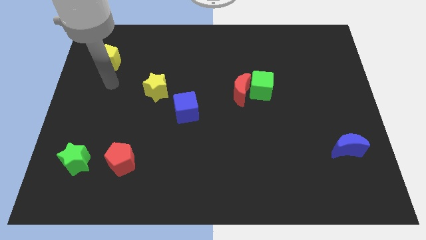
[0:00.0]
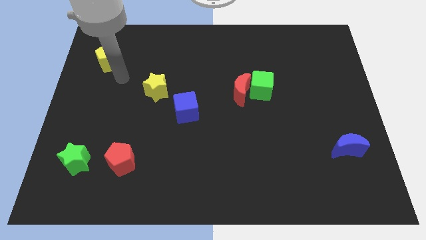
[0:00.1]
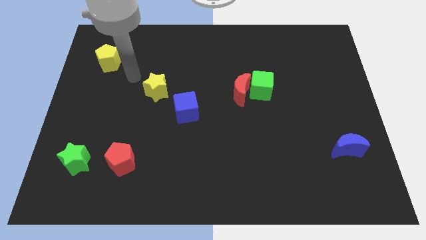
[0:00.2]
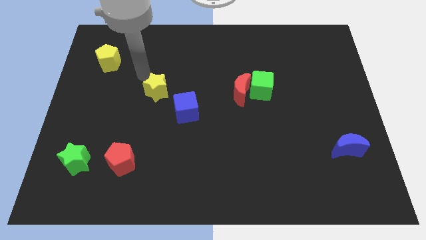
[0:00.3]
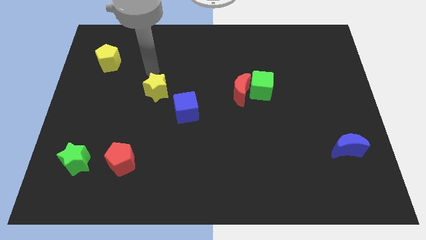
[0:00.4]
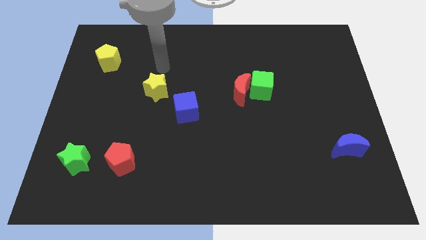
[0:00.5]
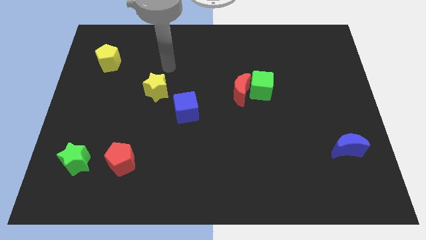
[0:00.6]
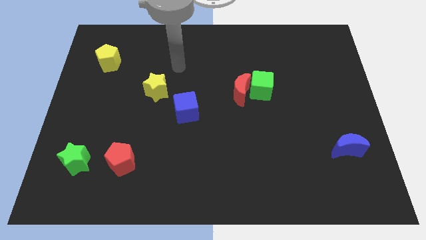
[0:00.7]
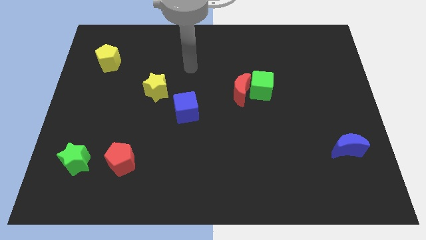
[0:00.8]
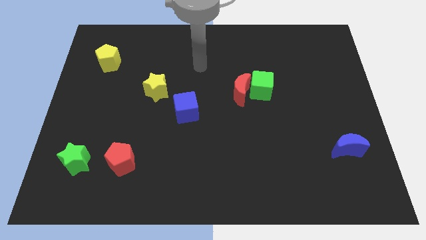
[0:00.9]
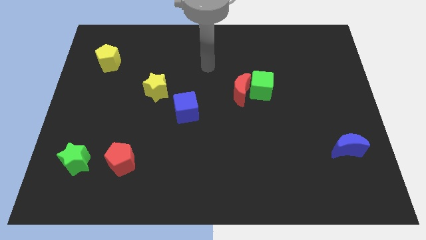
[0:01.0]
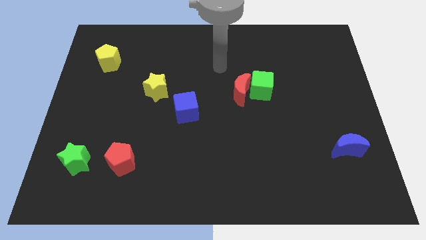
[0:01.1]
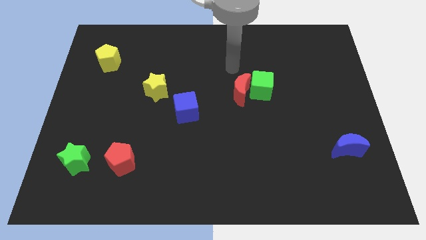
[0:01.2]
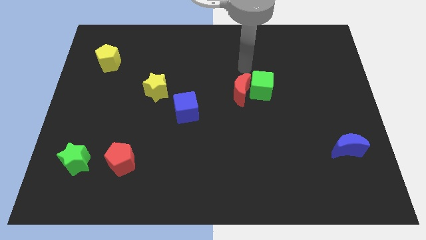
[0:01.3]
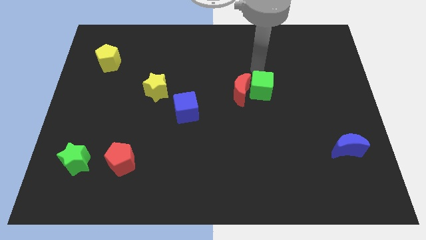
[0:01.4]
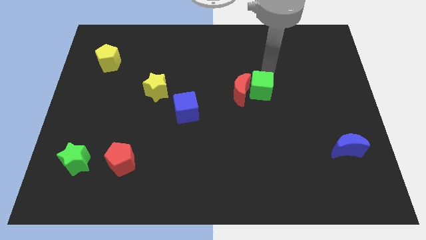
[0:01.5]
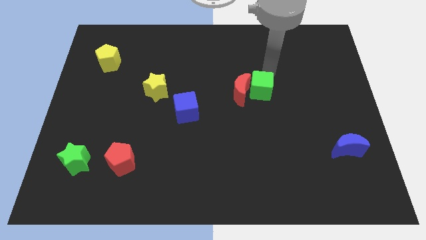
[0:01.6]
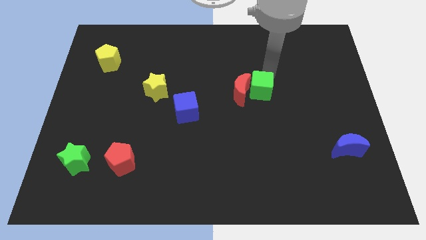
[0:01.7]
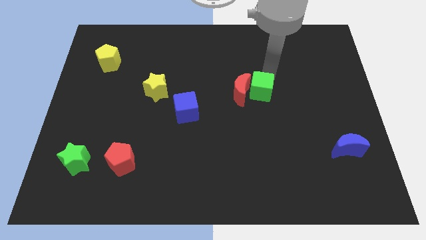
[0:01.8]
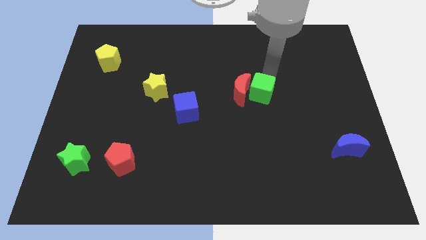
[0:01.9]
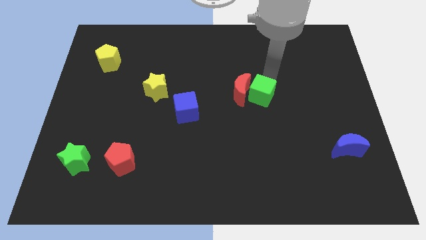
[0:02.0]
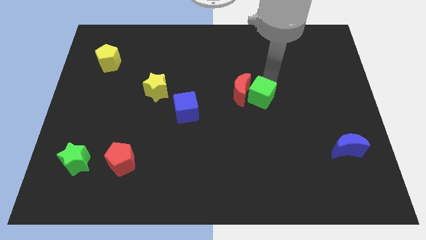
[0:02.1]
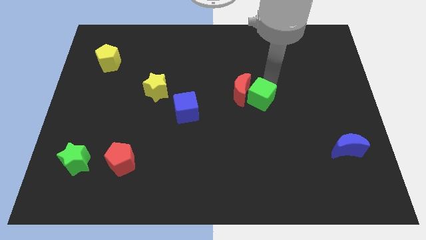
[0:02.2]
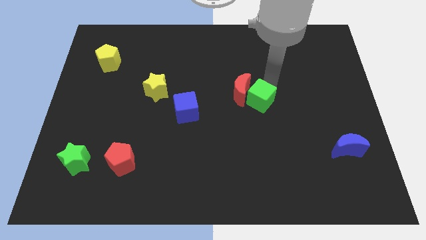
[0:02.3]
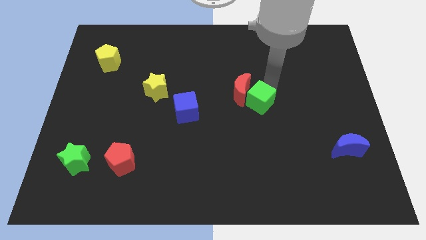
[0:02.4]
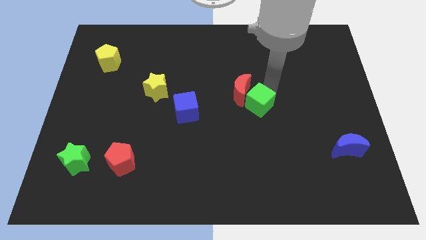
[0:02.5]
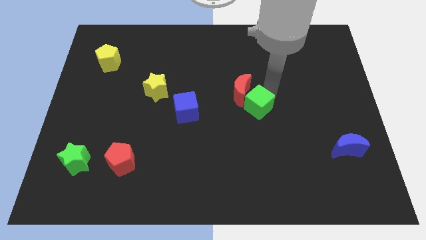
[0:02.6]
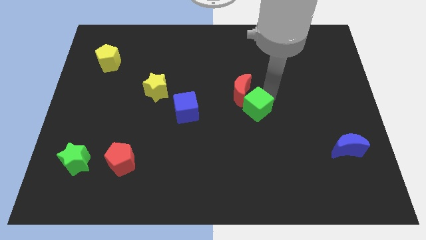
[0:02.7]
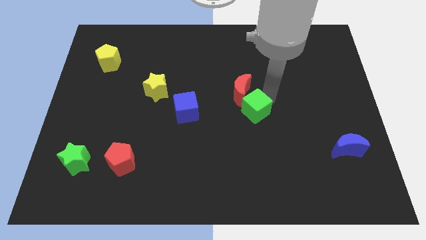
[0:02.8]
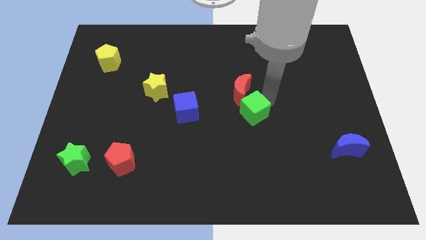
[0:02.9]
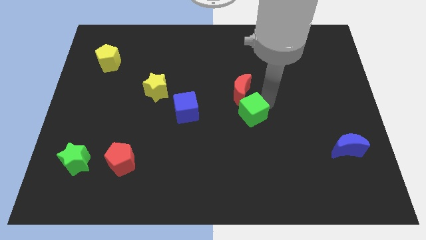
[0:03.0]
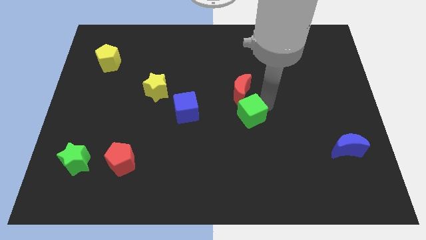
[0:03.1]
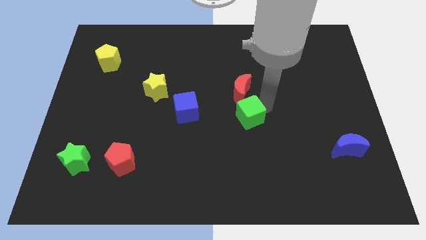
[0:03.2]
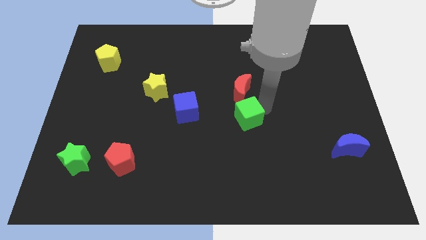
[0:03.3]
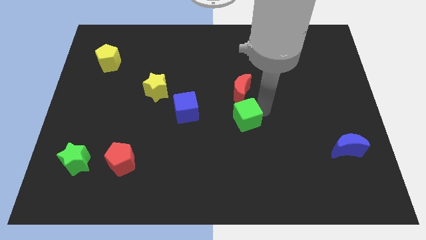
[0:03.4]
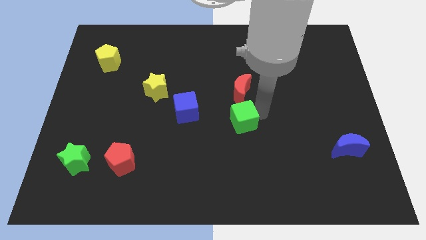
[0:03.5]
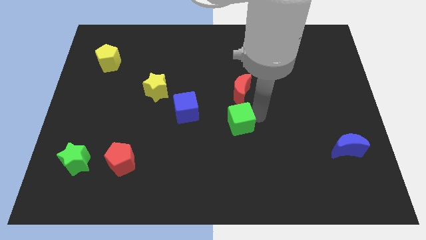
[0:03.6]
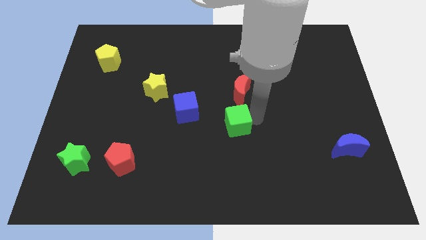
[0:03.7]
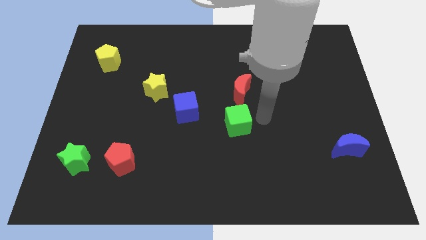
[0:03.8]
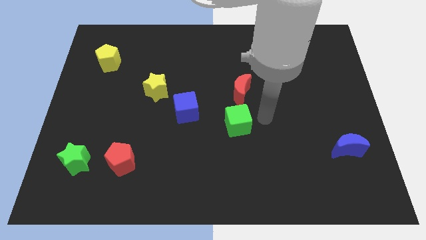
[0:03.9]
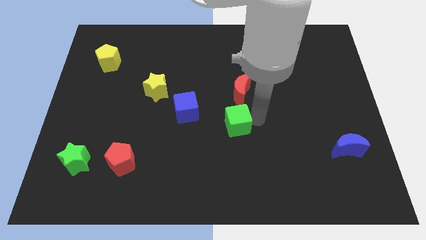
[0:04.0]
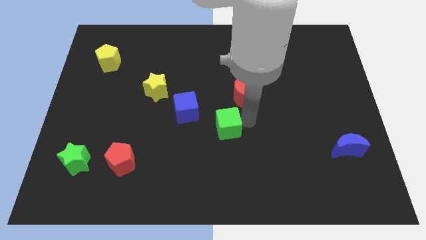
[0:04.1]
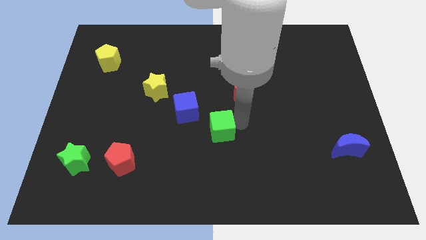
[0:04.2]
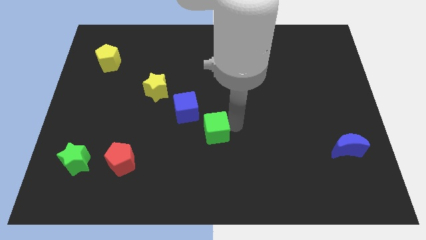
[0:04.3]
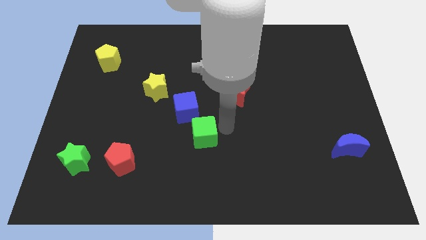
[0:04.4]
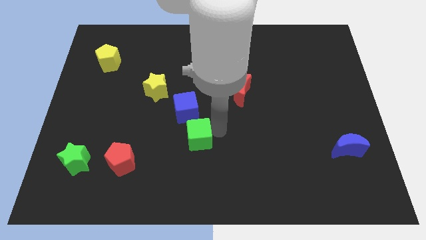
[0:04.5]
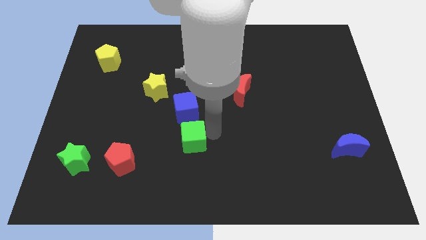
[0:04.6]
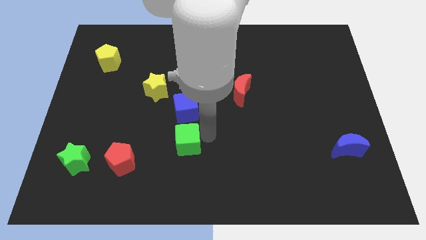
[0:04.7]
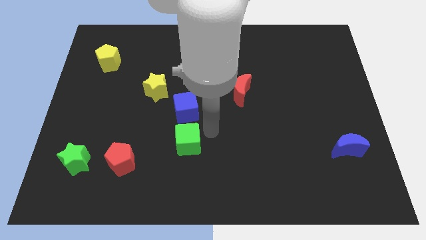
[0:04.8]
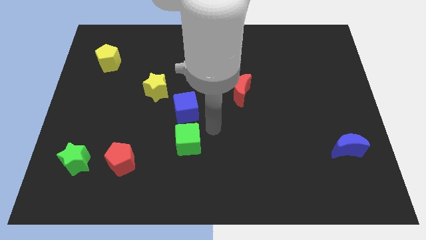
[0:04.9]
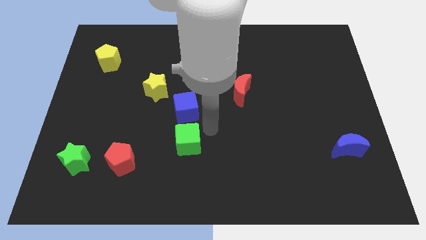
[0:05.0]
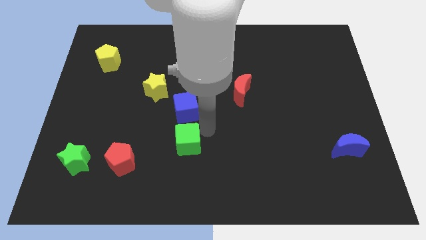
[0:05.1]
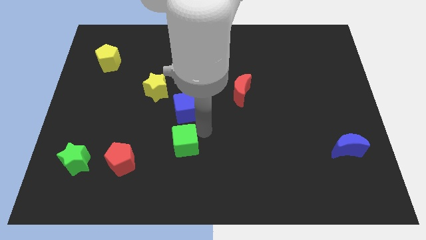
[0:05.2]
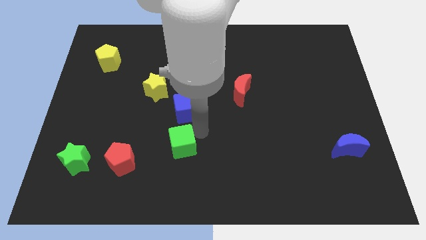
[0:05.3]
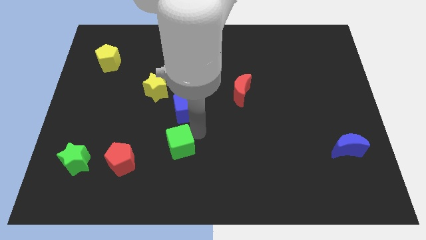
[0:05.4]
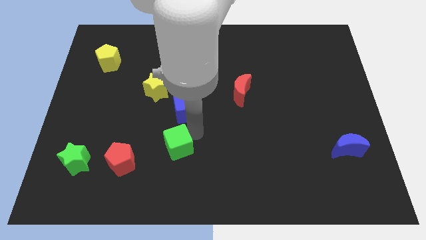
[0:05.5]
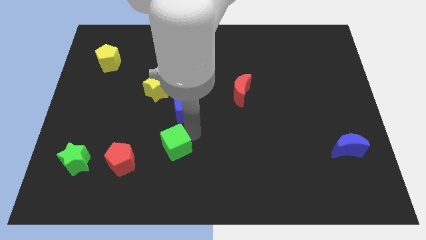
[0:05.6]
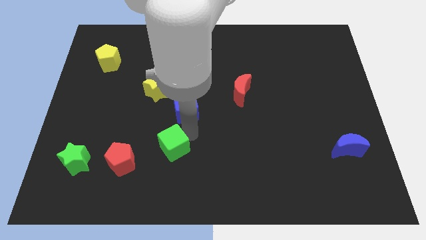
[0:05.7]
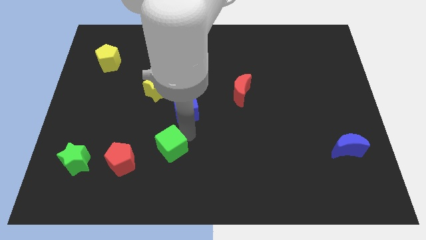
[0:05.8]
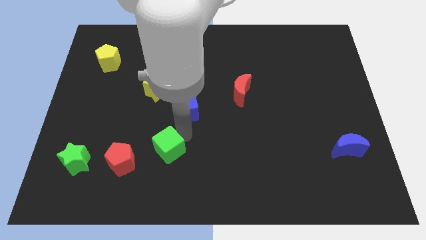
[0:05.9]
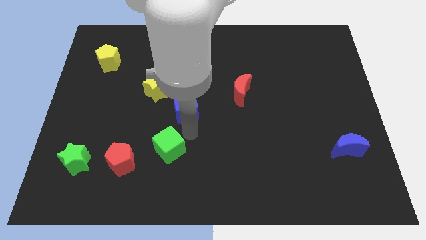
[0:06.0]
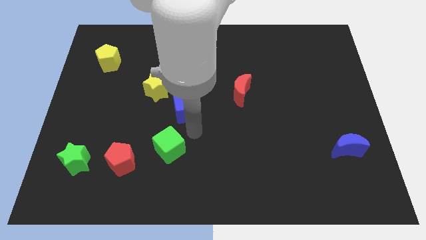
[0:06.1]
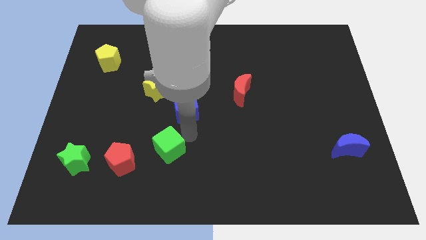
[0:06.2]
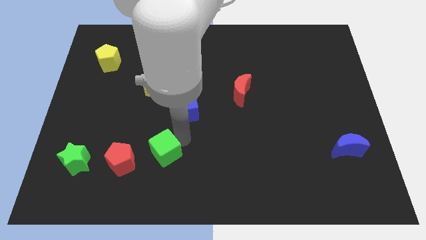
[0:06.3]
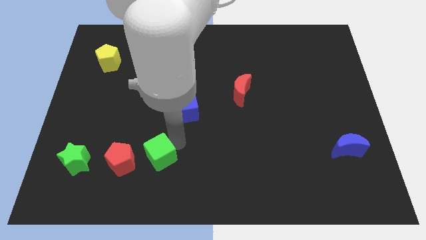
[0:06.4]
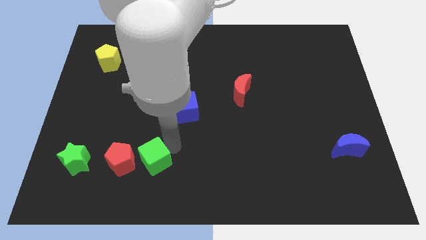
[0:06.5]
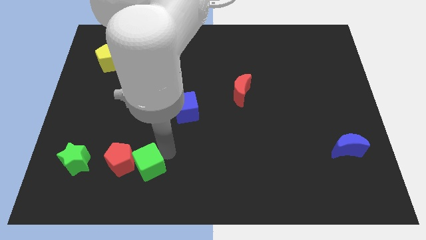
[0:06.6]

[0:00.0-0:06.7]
move the green cube right of the green star

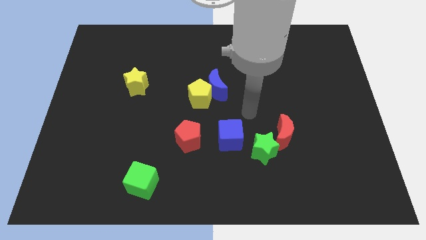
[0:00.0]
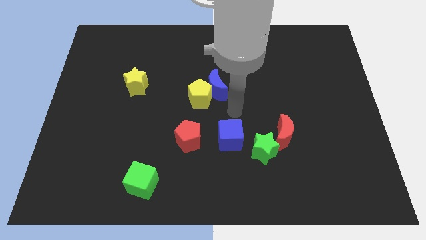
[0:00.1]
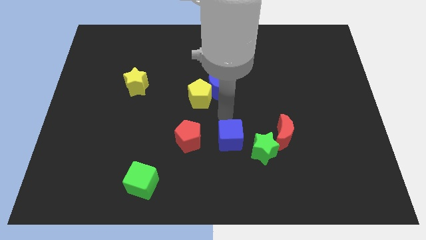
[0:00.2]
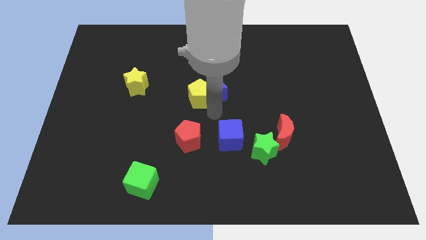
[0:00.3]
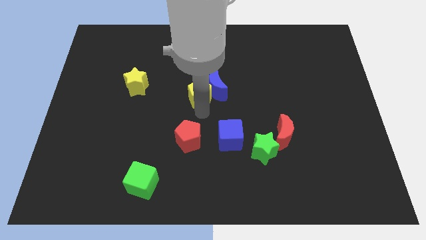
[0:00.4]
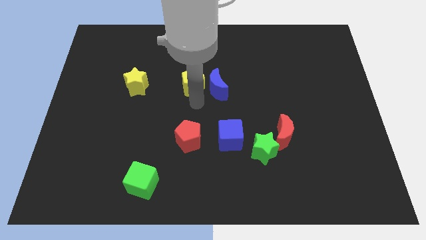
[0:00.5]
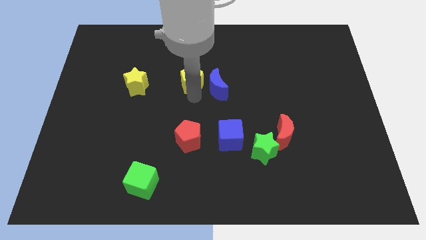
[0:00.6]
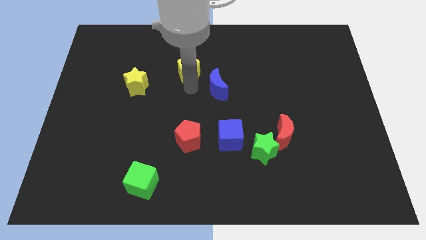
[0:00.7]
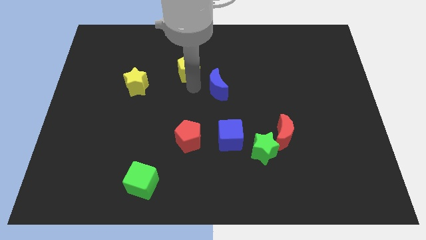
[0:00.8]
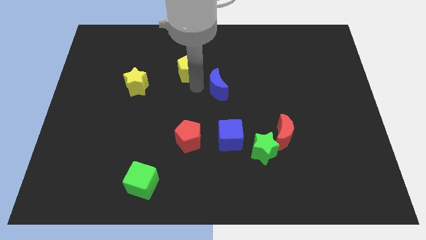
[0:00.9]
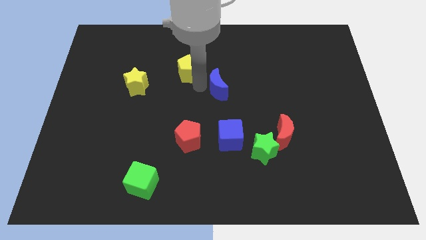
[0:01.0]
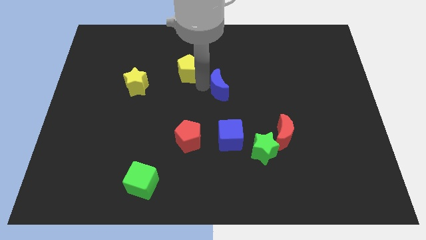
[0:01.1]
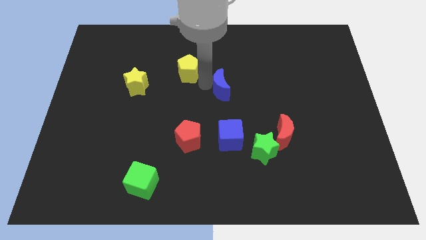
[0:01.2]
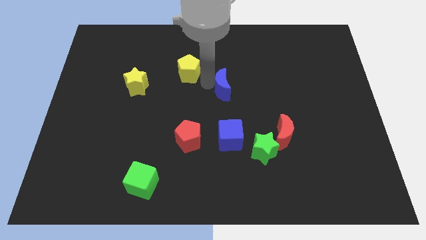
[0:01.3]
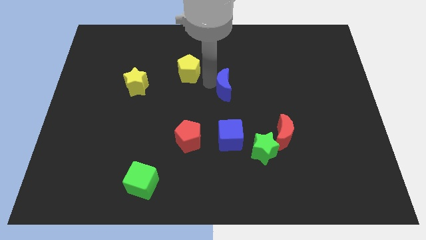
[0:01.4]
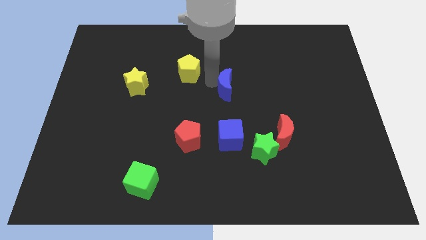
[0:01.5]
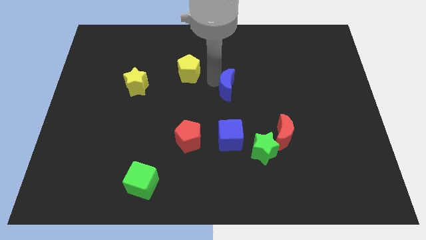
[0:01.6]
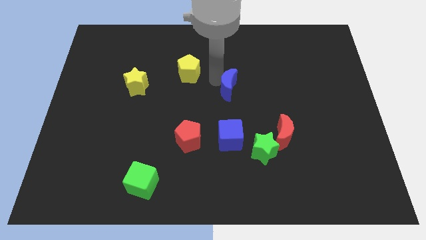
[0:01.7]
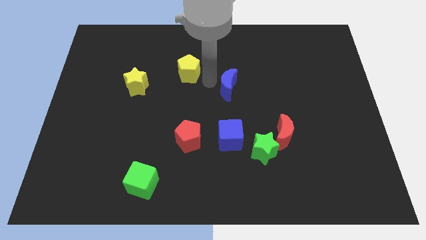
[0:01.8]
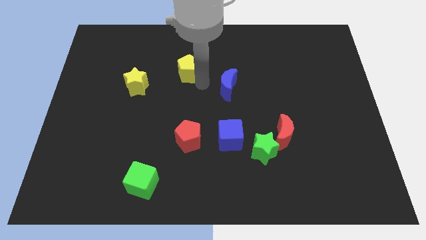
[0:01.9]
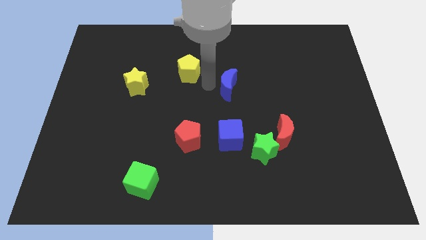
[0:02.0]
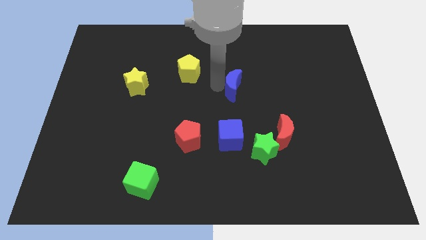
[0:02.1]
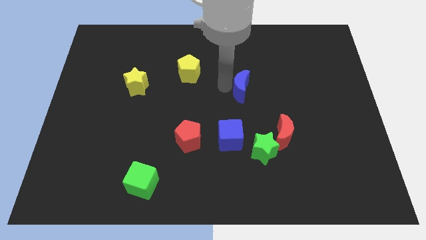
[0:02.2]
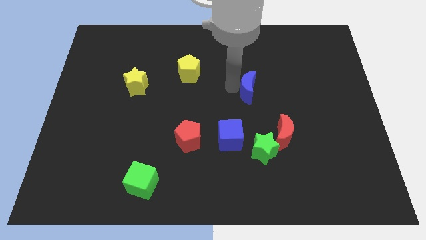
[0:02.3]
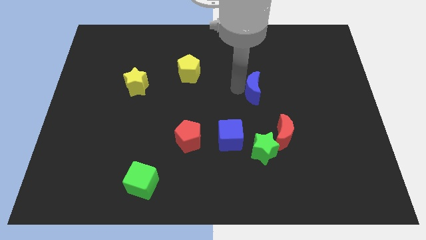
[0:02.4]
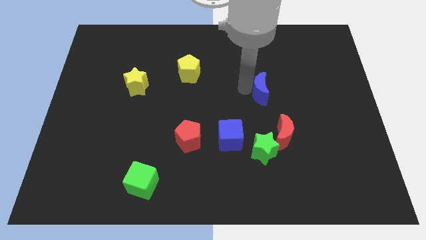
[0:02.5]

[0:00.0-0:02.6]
move the blue moon to the top side of the red moon
